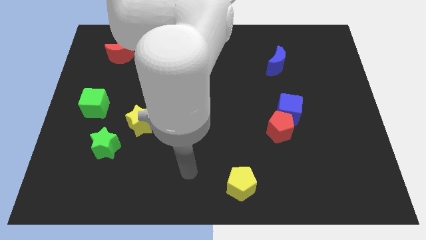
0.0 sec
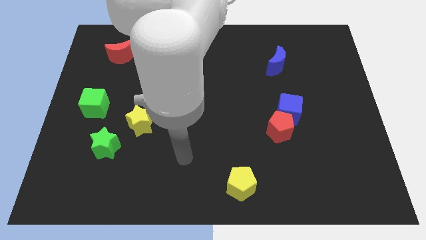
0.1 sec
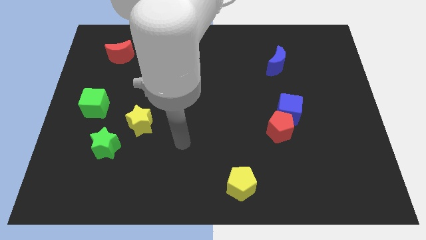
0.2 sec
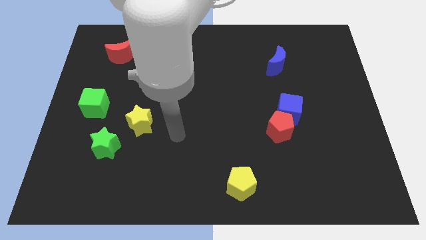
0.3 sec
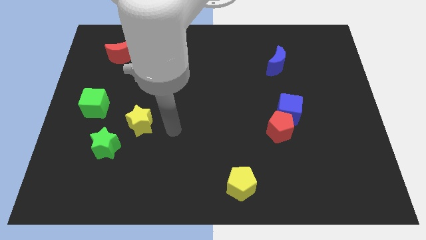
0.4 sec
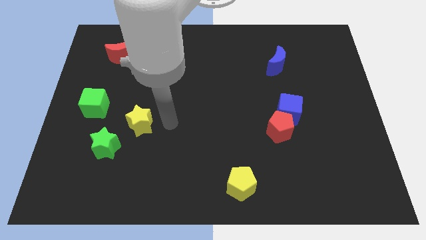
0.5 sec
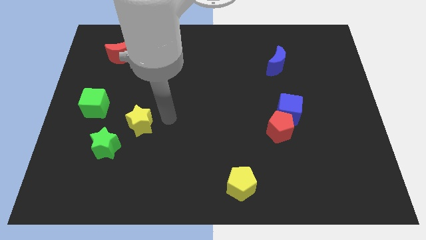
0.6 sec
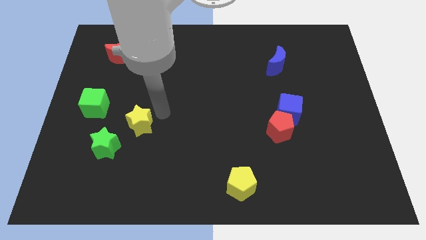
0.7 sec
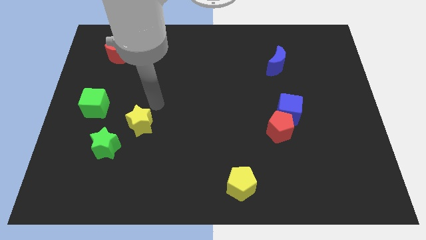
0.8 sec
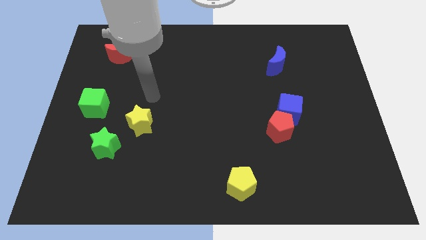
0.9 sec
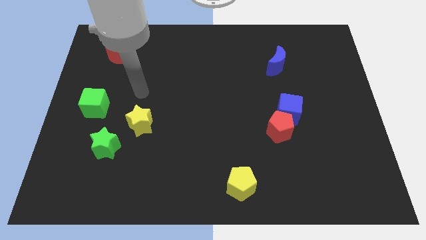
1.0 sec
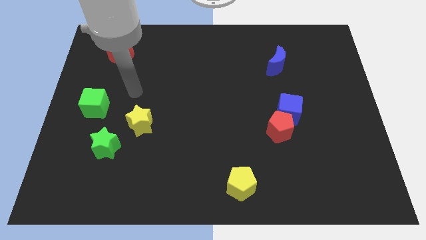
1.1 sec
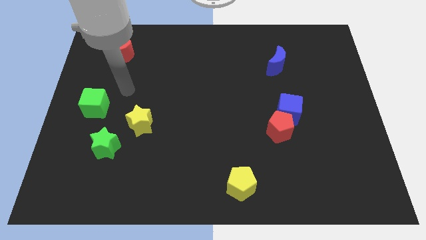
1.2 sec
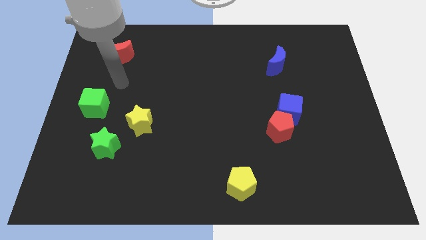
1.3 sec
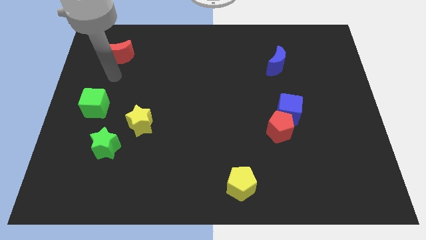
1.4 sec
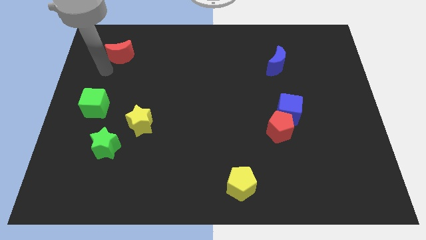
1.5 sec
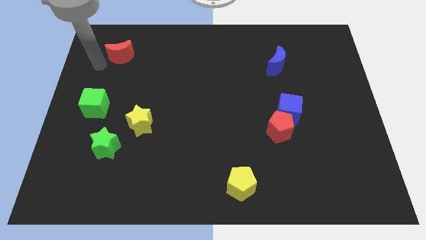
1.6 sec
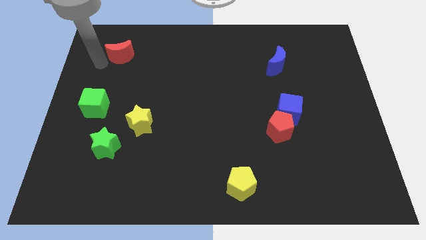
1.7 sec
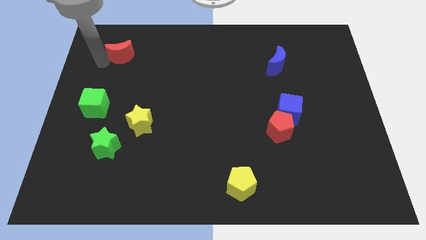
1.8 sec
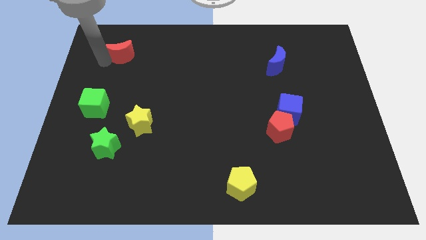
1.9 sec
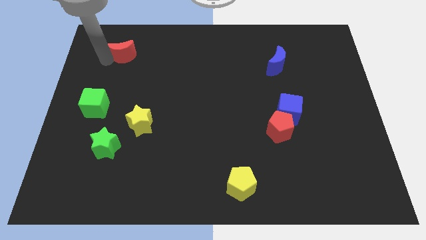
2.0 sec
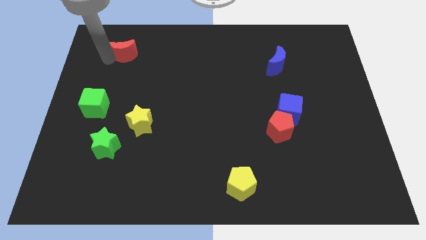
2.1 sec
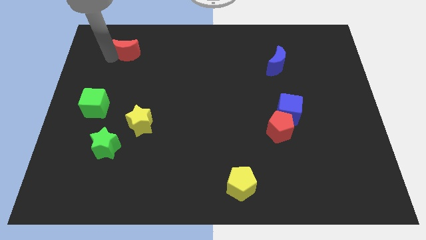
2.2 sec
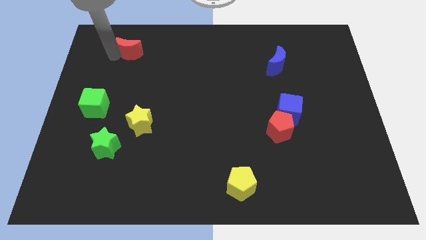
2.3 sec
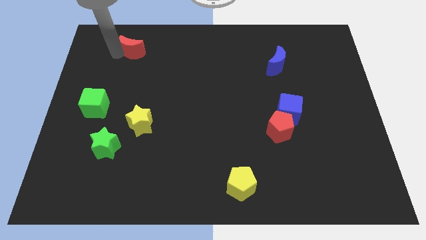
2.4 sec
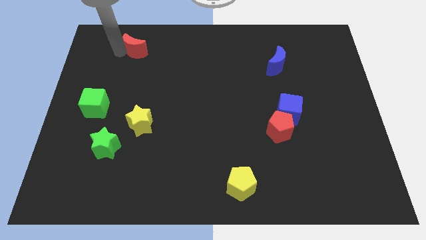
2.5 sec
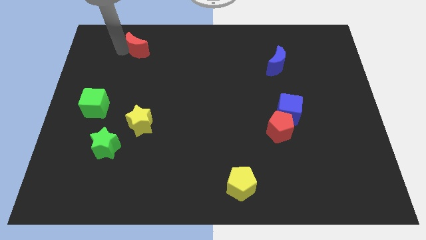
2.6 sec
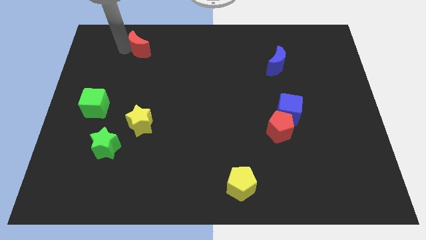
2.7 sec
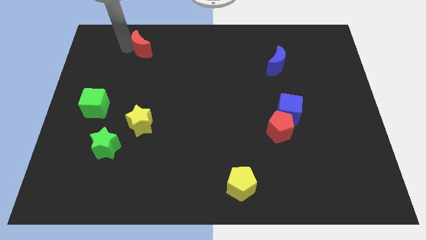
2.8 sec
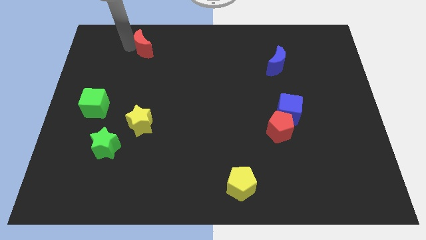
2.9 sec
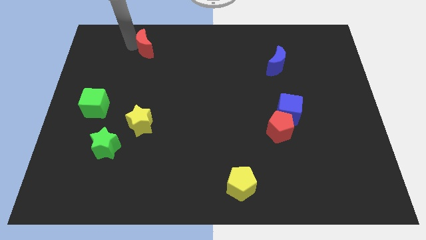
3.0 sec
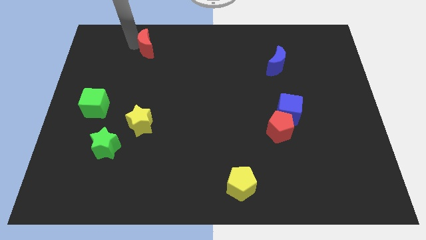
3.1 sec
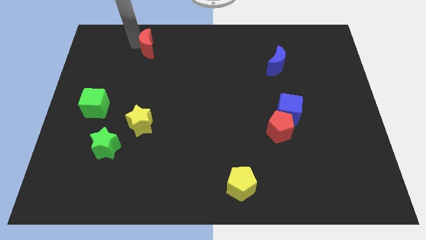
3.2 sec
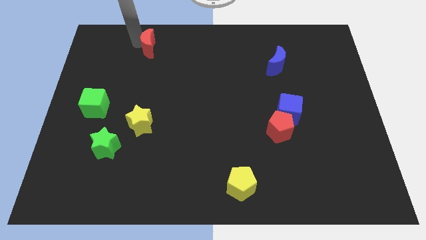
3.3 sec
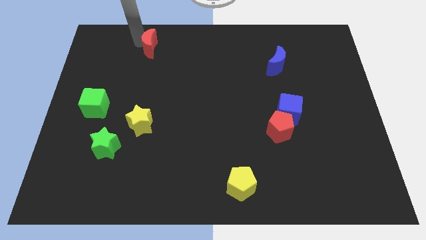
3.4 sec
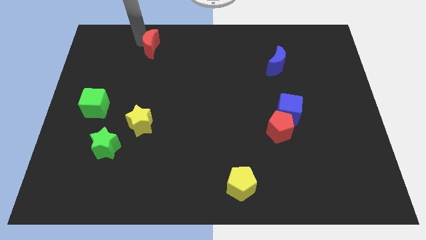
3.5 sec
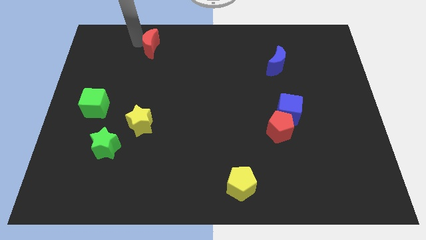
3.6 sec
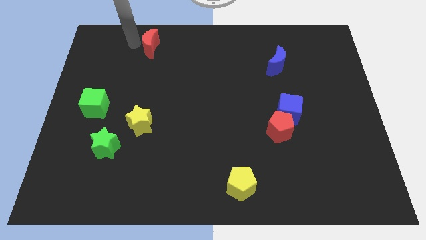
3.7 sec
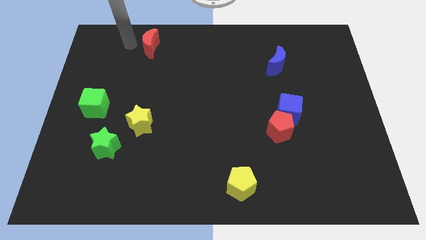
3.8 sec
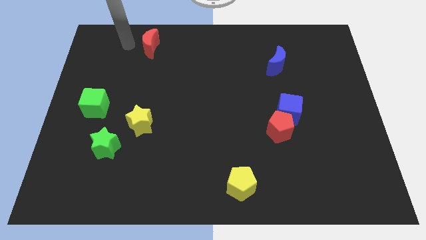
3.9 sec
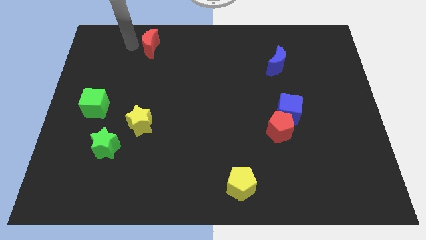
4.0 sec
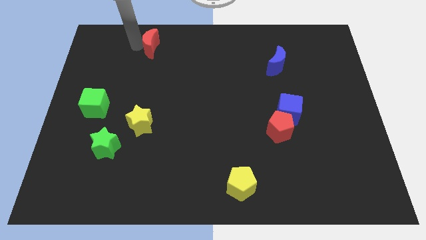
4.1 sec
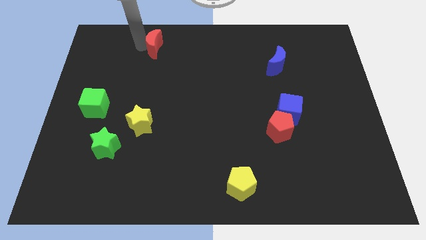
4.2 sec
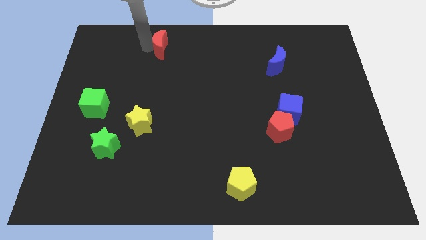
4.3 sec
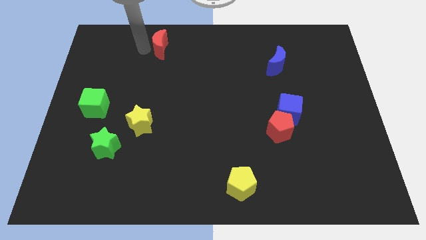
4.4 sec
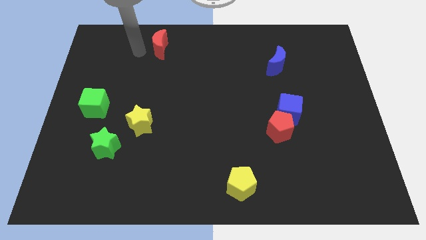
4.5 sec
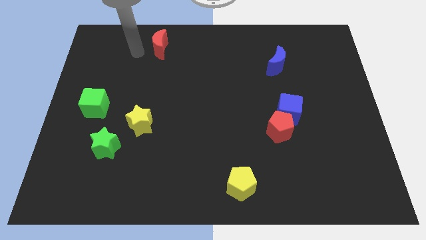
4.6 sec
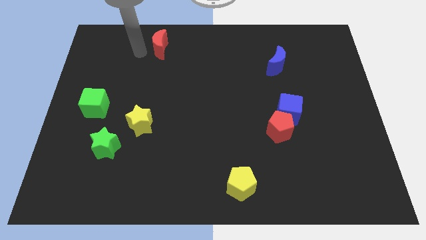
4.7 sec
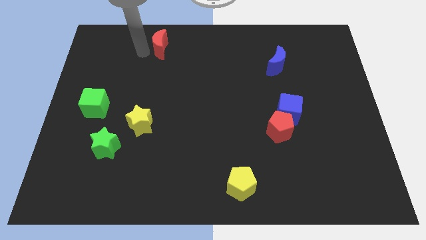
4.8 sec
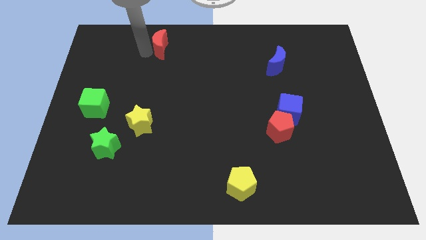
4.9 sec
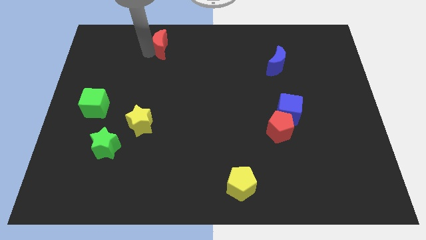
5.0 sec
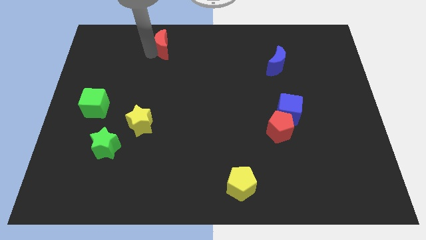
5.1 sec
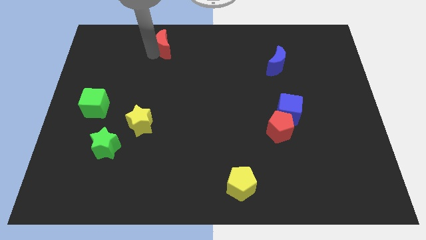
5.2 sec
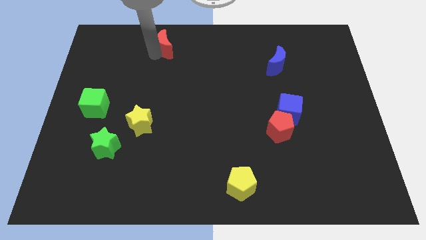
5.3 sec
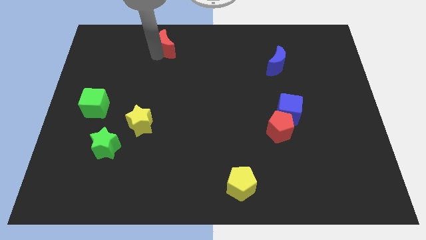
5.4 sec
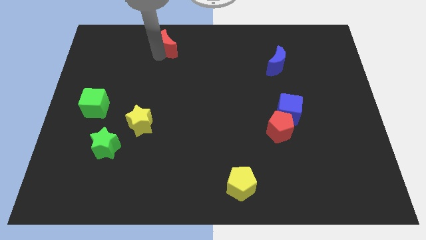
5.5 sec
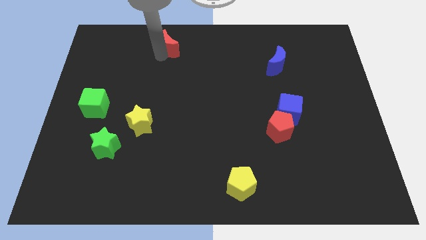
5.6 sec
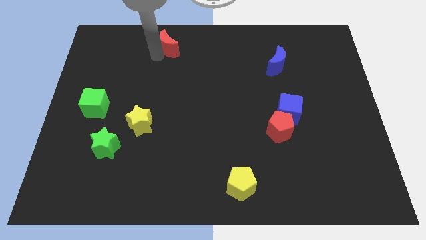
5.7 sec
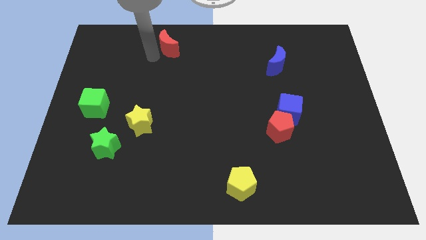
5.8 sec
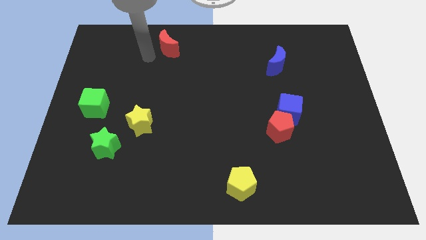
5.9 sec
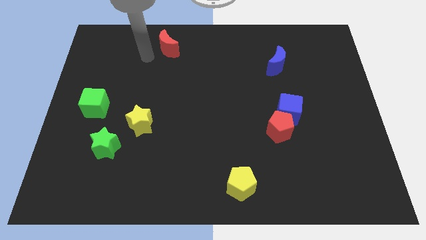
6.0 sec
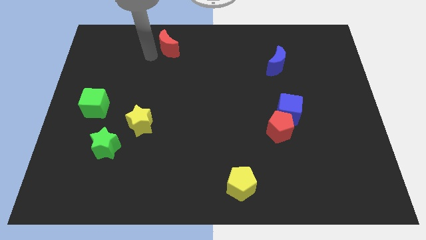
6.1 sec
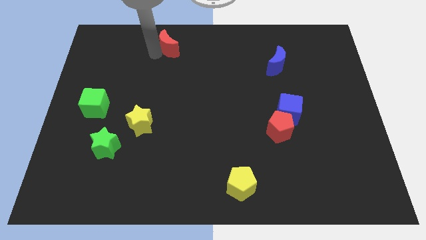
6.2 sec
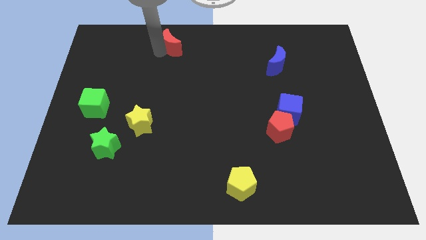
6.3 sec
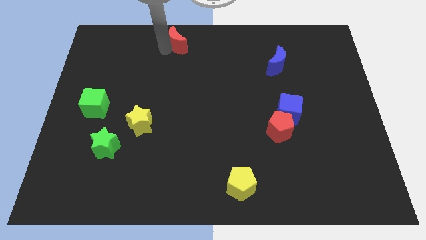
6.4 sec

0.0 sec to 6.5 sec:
put the red moon to the towards your base

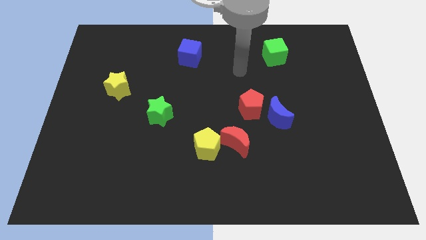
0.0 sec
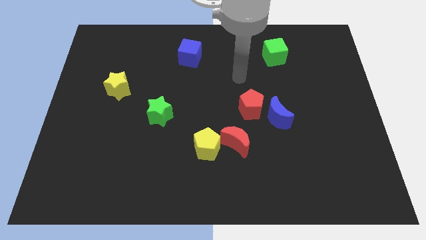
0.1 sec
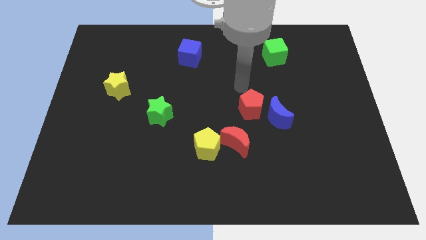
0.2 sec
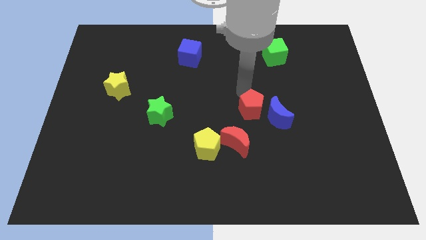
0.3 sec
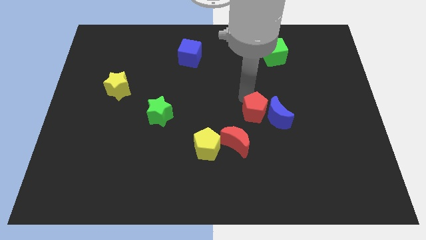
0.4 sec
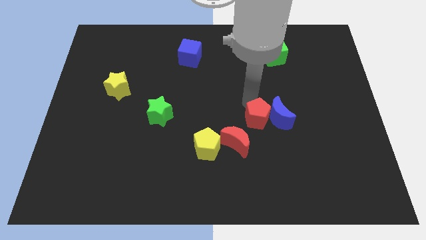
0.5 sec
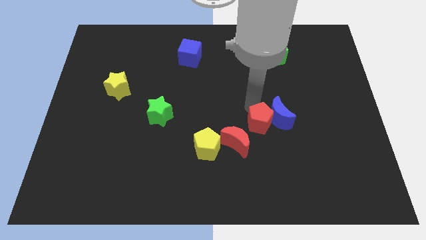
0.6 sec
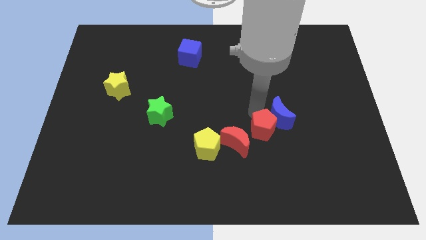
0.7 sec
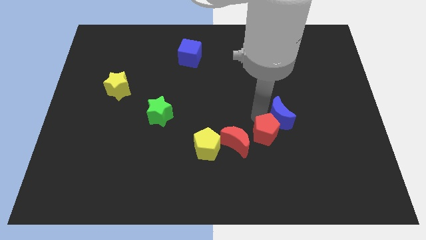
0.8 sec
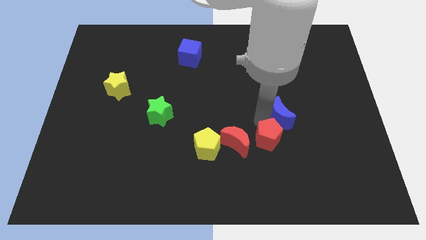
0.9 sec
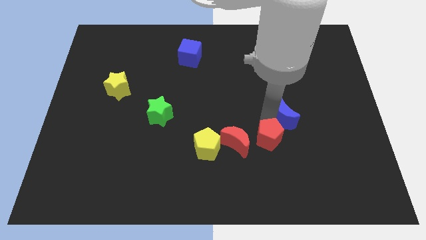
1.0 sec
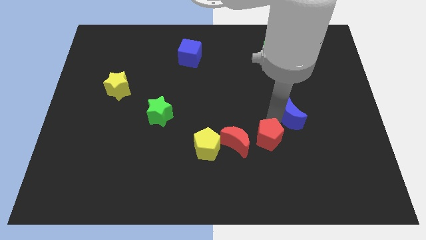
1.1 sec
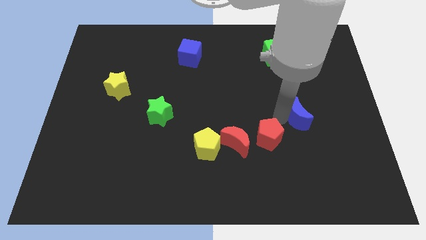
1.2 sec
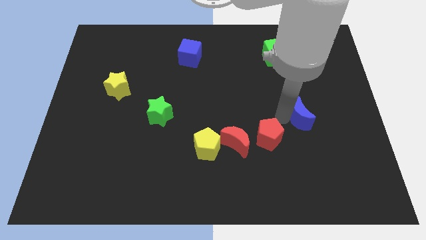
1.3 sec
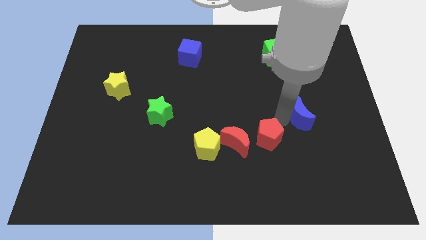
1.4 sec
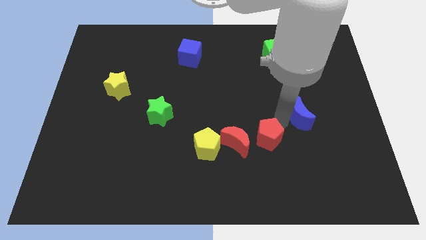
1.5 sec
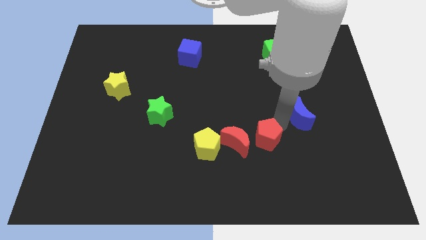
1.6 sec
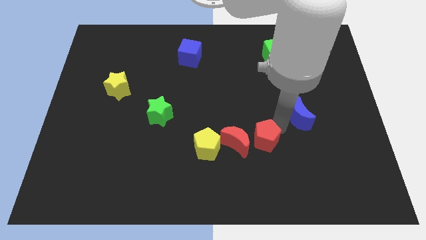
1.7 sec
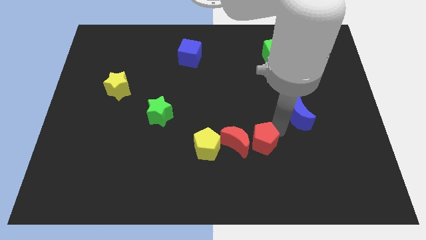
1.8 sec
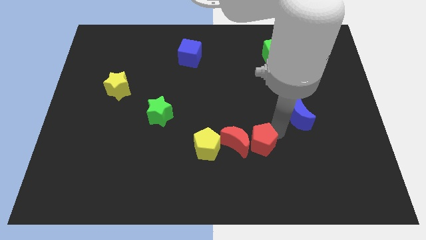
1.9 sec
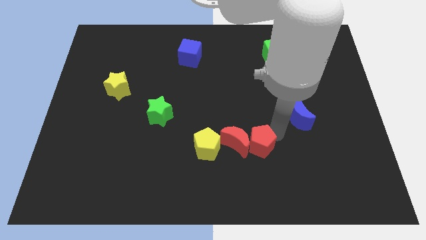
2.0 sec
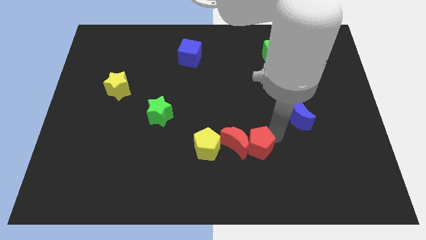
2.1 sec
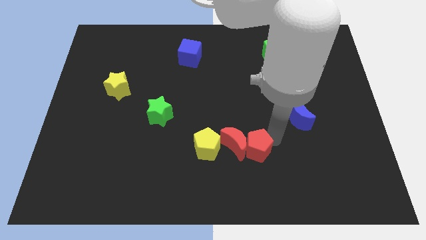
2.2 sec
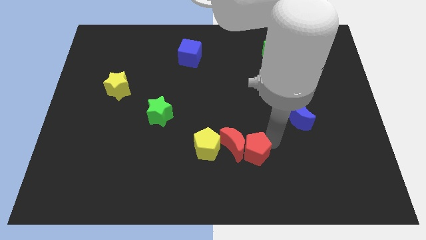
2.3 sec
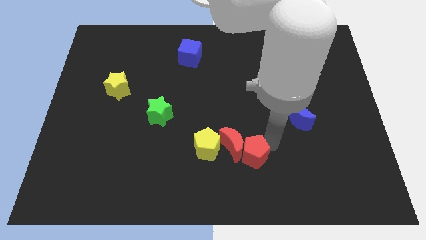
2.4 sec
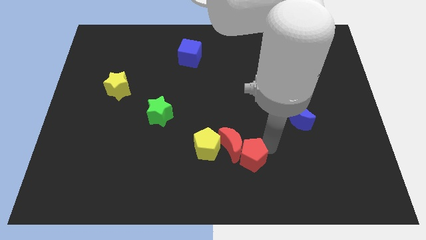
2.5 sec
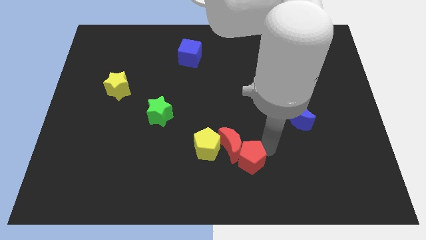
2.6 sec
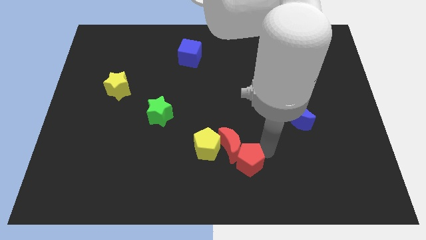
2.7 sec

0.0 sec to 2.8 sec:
move the red pentagon to the bottom side
